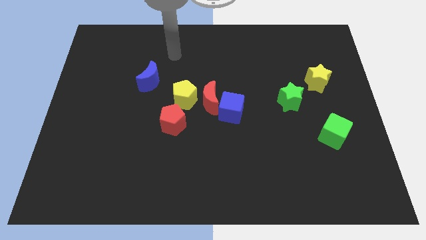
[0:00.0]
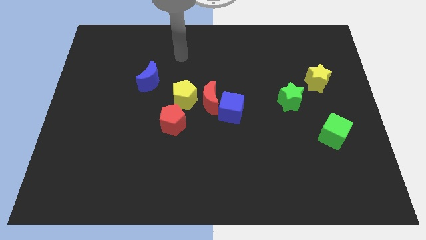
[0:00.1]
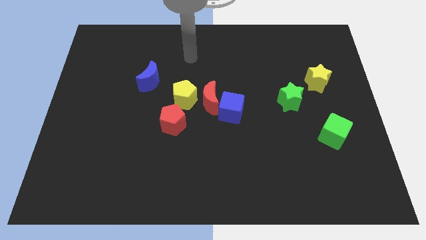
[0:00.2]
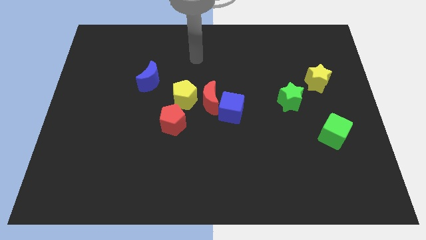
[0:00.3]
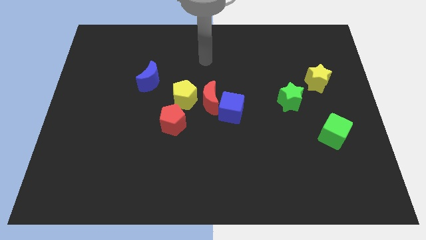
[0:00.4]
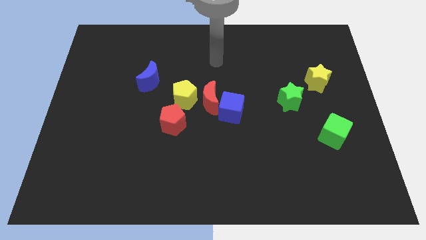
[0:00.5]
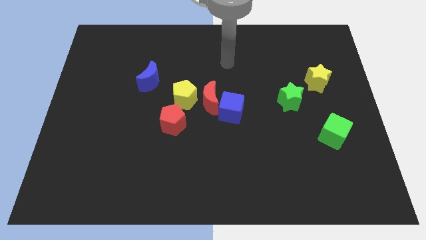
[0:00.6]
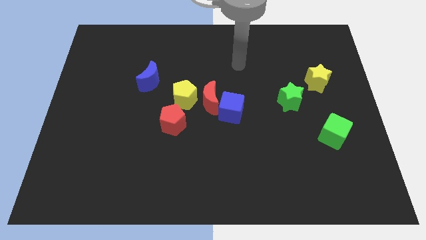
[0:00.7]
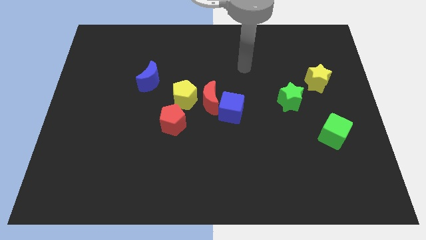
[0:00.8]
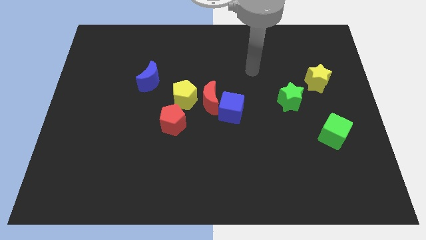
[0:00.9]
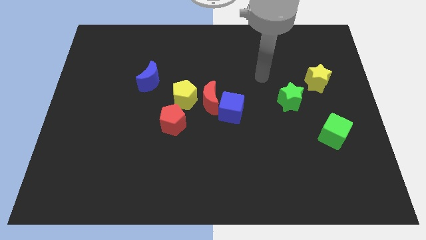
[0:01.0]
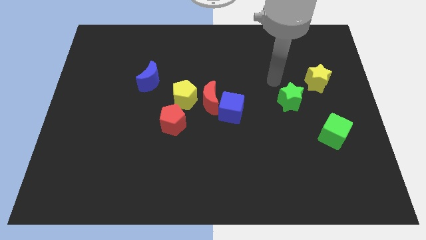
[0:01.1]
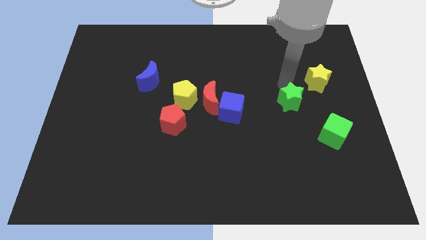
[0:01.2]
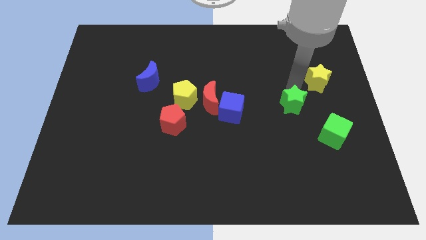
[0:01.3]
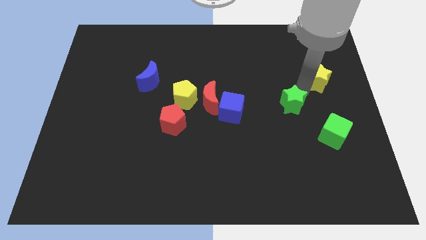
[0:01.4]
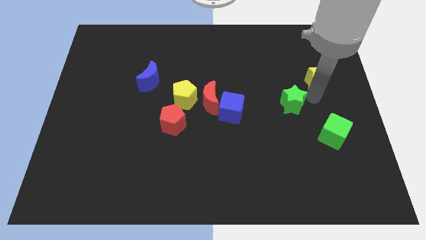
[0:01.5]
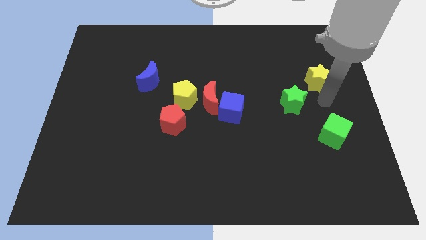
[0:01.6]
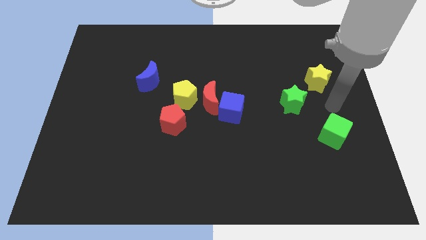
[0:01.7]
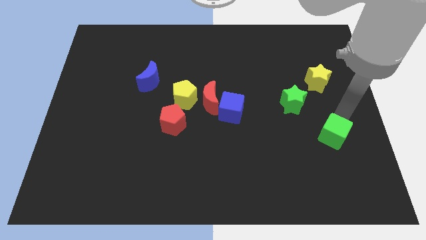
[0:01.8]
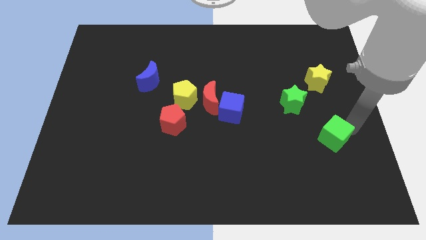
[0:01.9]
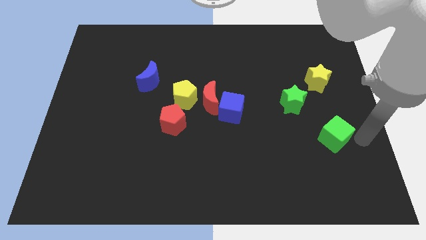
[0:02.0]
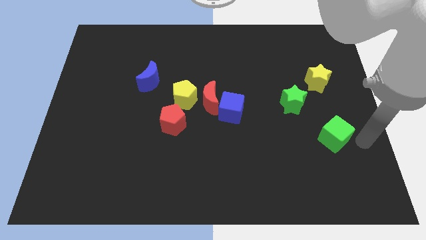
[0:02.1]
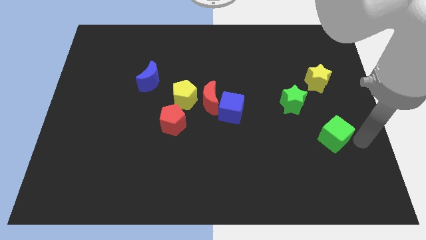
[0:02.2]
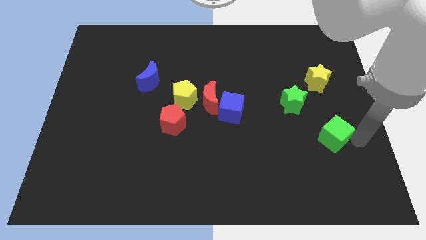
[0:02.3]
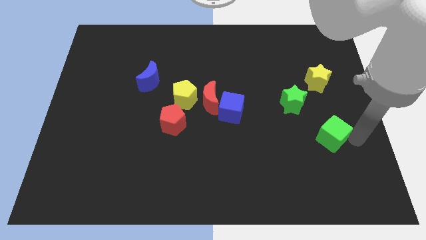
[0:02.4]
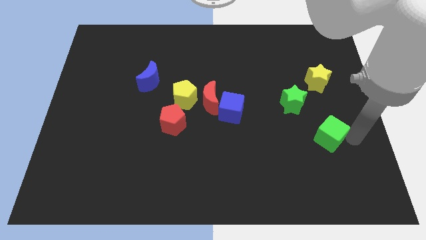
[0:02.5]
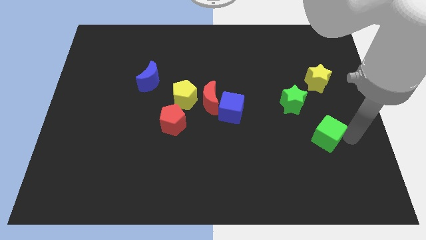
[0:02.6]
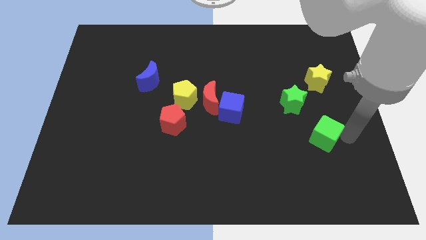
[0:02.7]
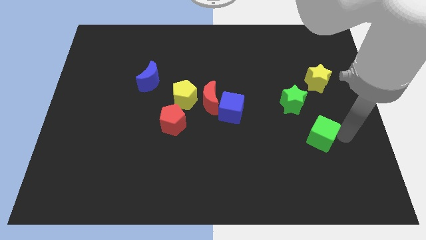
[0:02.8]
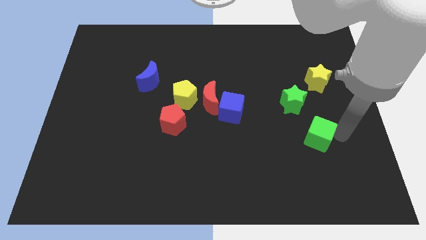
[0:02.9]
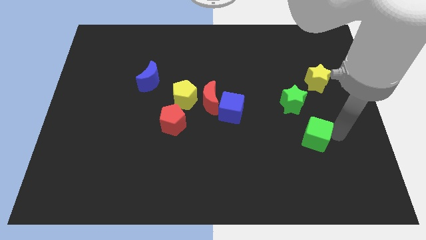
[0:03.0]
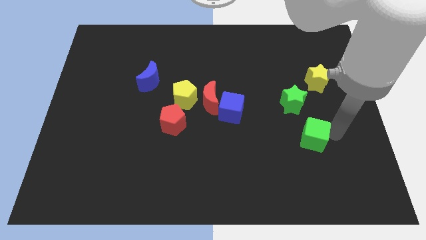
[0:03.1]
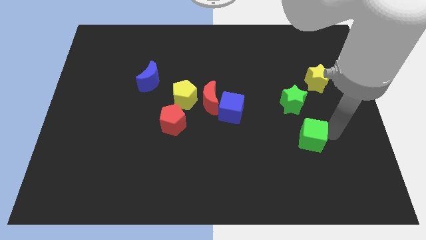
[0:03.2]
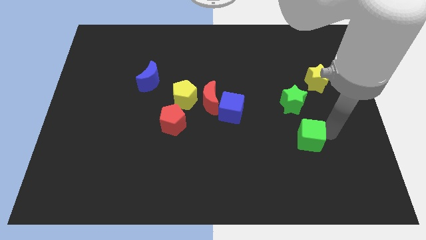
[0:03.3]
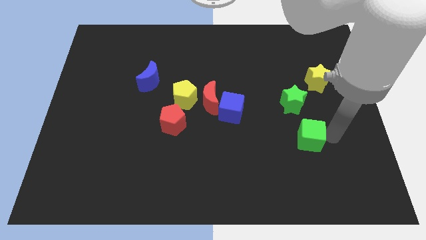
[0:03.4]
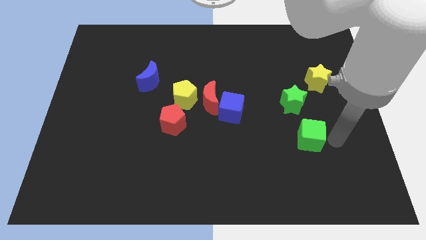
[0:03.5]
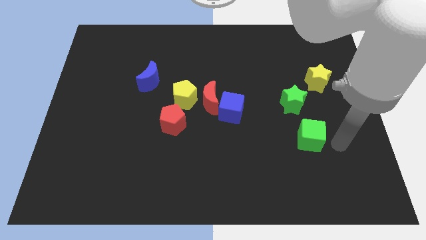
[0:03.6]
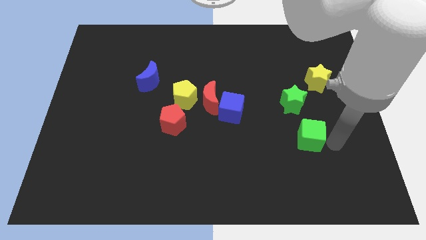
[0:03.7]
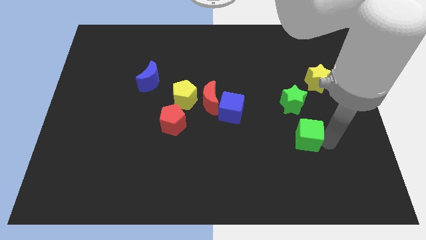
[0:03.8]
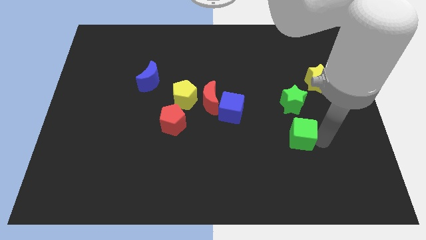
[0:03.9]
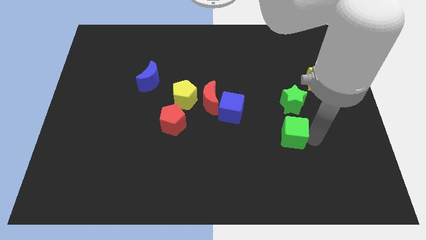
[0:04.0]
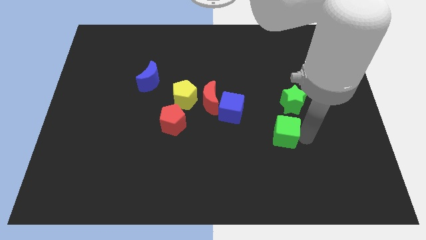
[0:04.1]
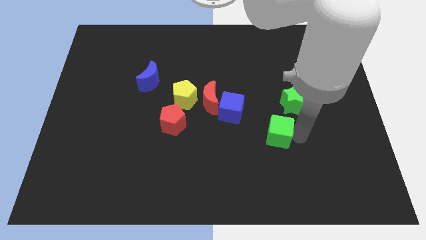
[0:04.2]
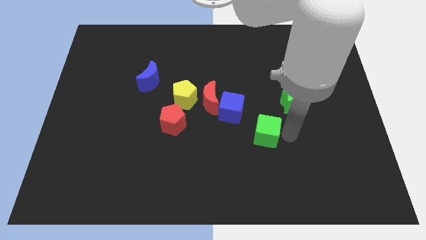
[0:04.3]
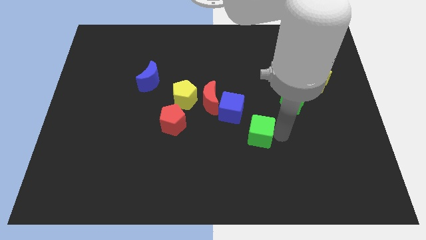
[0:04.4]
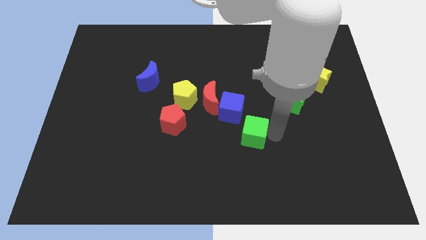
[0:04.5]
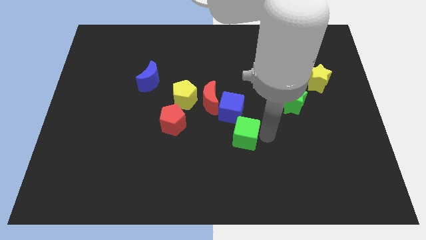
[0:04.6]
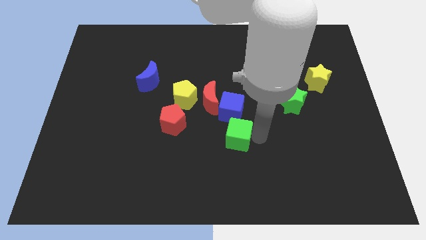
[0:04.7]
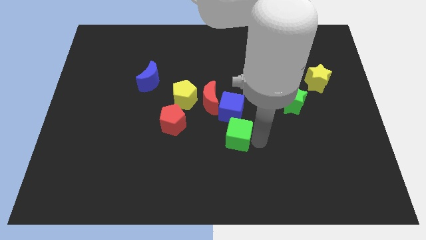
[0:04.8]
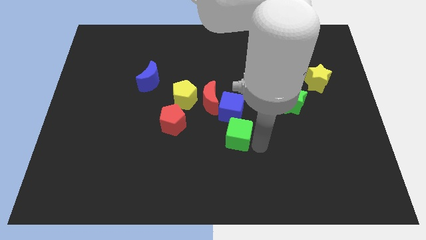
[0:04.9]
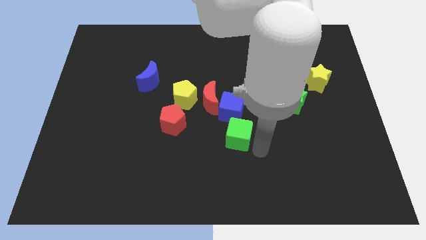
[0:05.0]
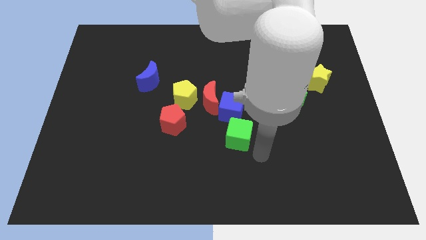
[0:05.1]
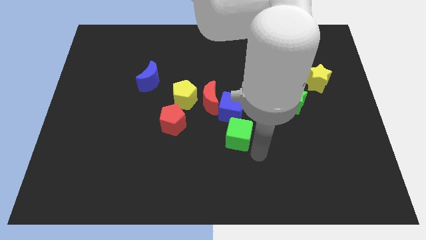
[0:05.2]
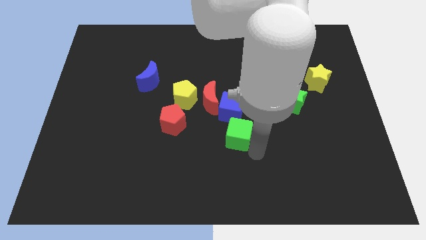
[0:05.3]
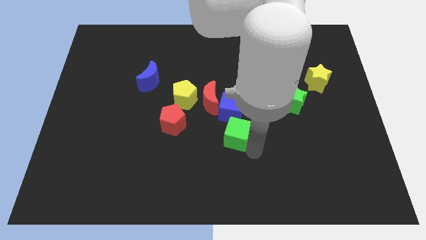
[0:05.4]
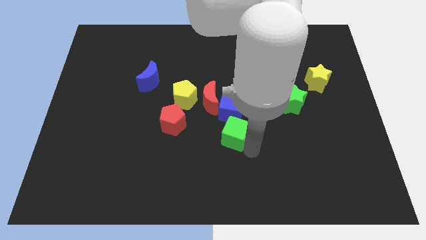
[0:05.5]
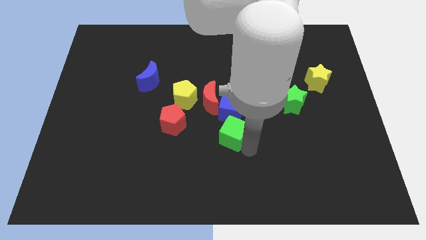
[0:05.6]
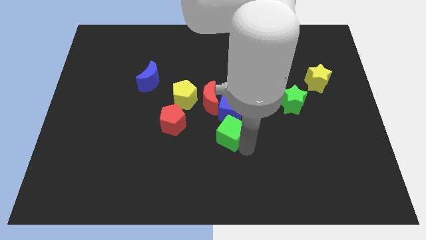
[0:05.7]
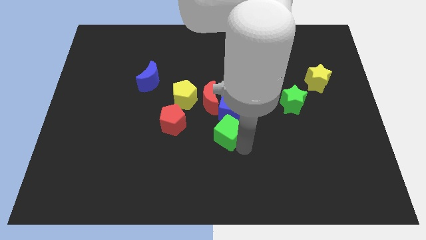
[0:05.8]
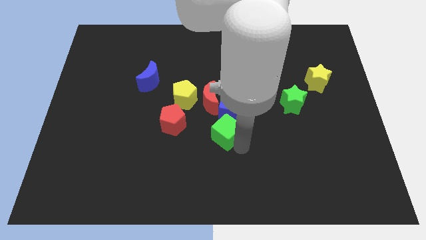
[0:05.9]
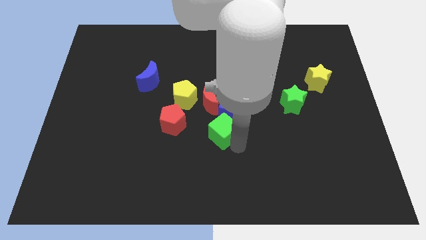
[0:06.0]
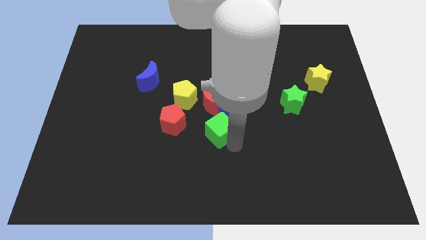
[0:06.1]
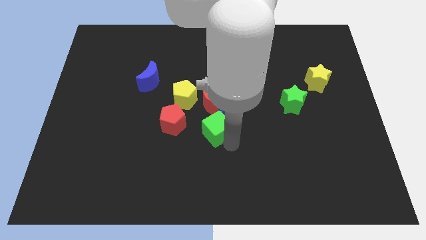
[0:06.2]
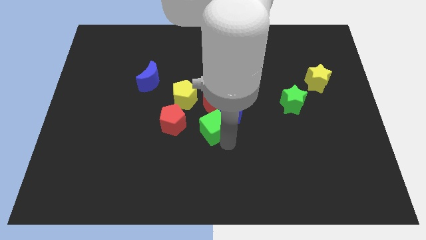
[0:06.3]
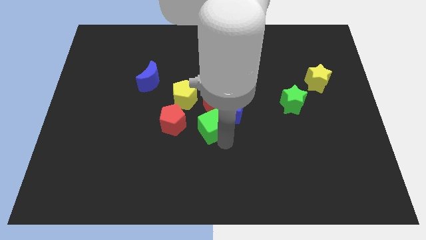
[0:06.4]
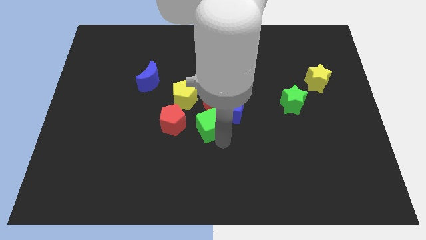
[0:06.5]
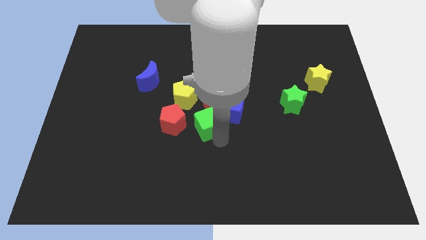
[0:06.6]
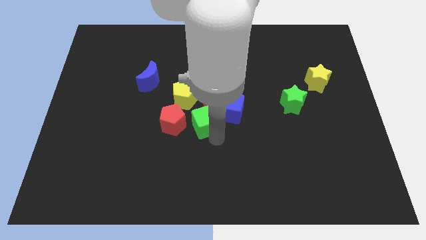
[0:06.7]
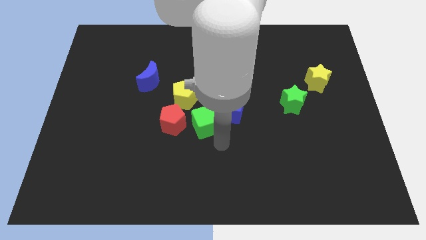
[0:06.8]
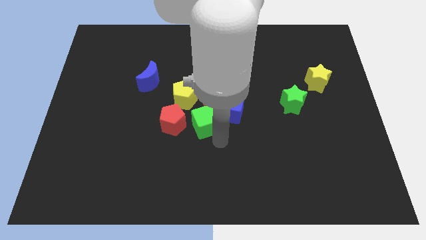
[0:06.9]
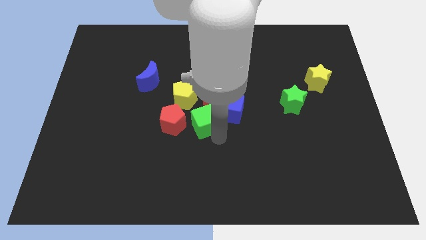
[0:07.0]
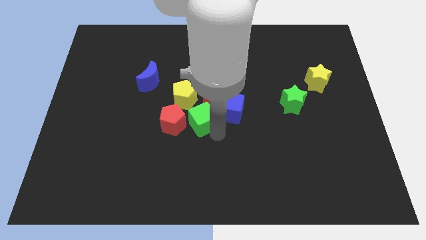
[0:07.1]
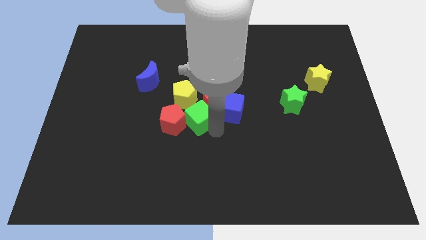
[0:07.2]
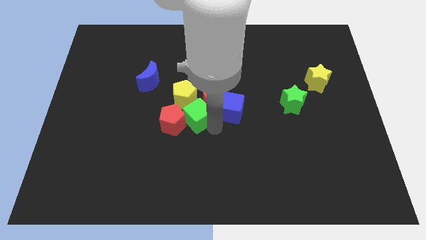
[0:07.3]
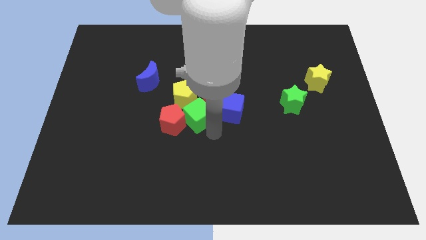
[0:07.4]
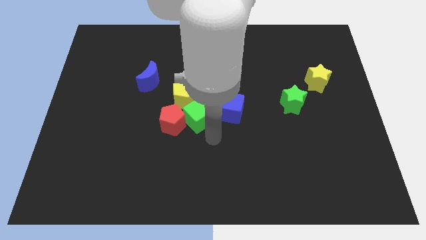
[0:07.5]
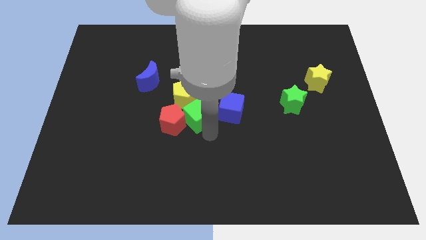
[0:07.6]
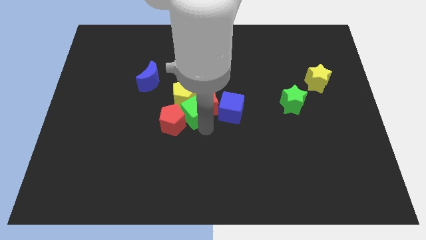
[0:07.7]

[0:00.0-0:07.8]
push the green cube close to the yellow pentagon
